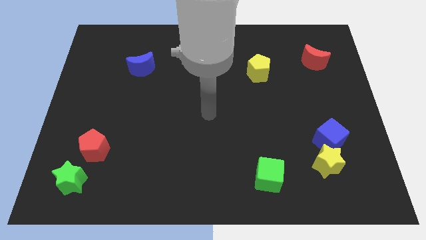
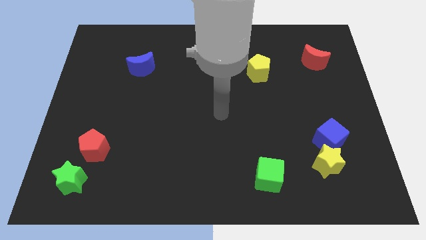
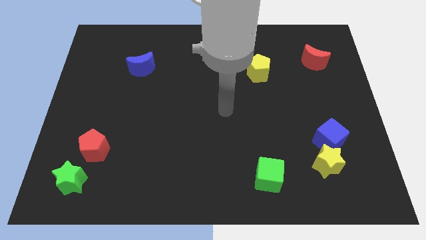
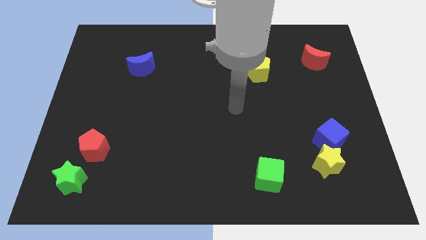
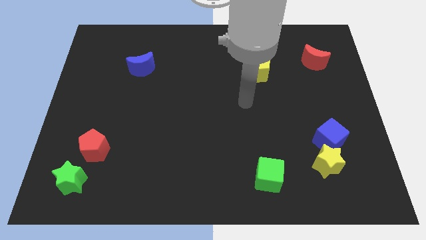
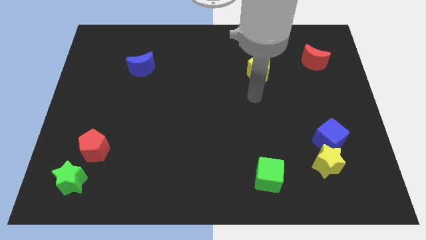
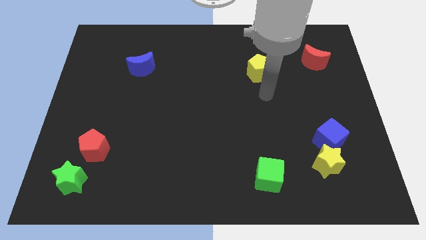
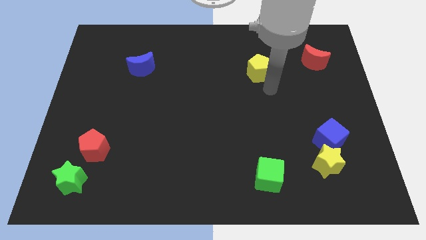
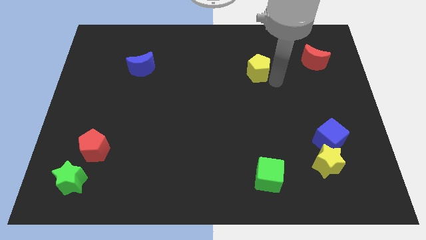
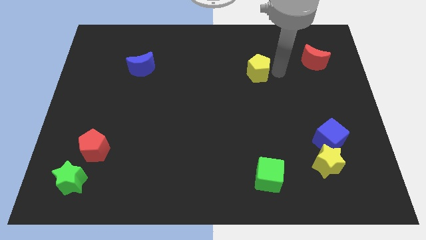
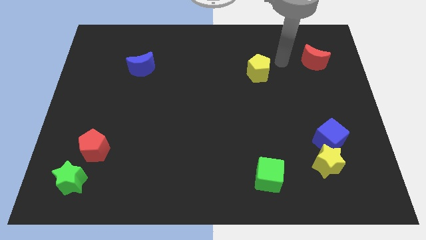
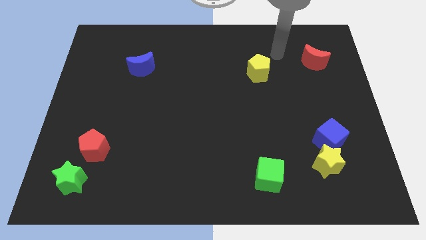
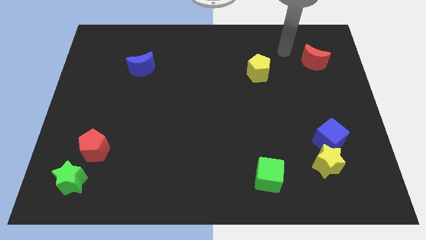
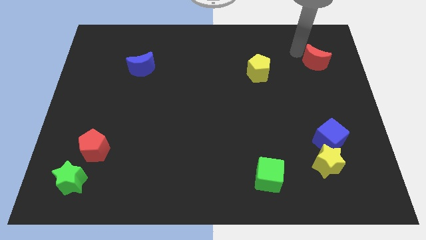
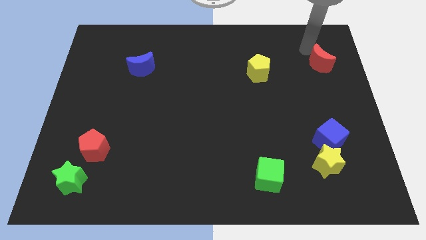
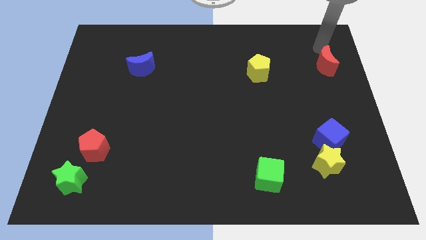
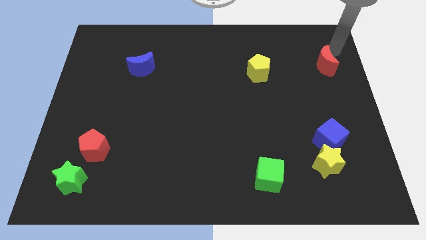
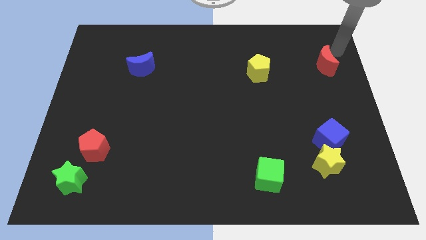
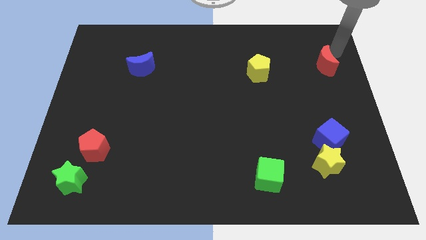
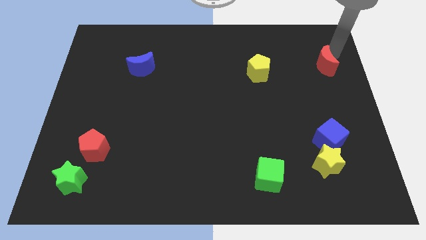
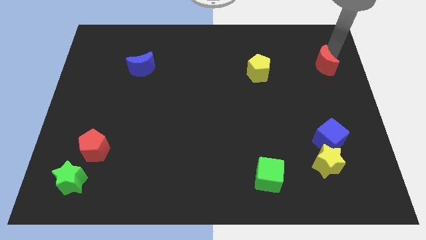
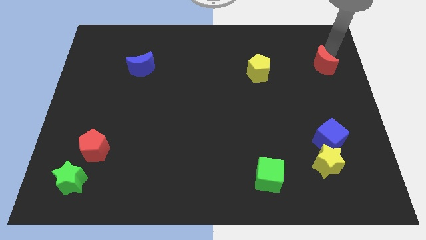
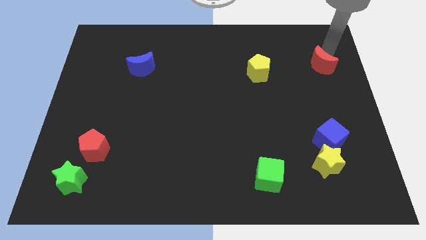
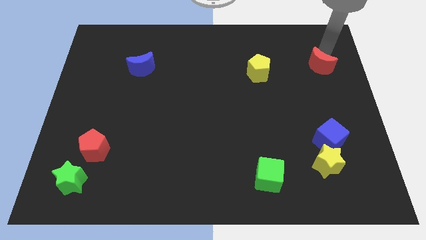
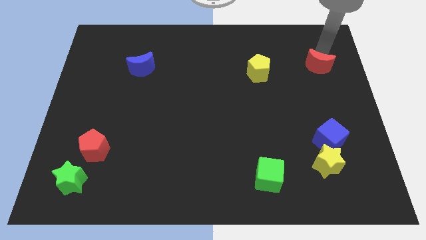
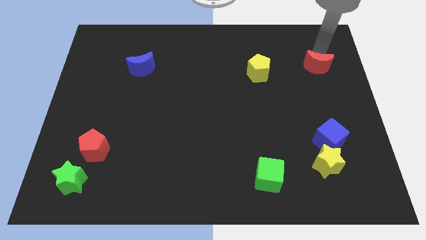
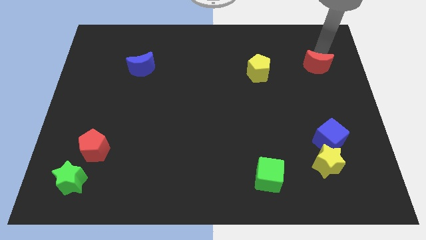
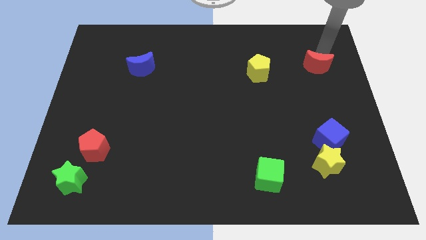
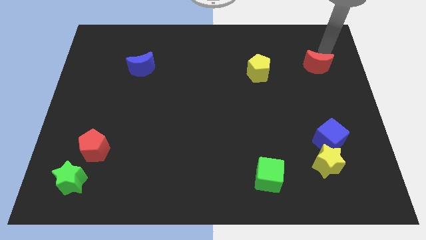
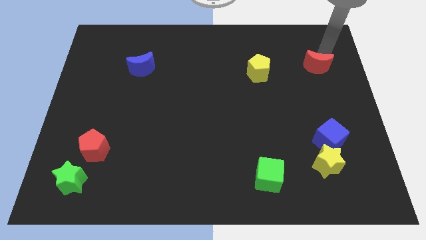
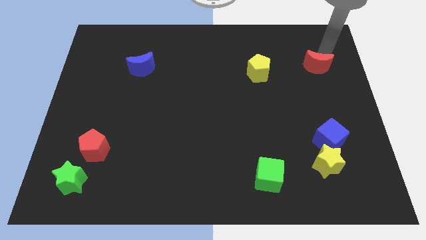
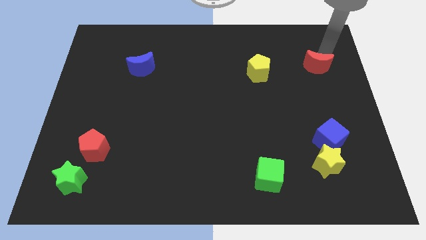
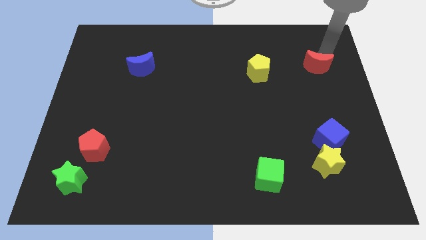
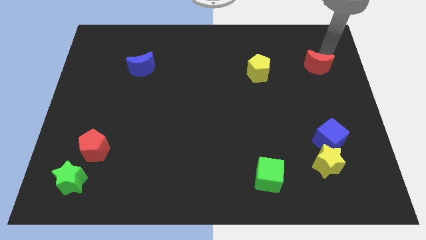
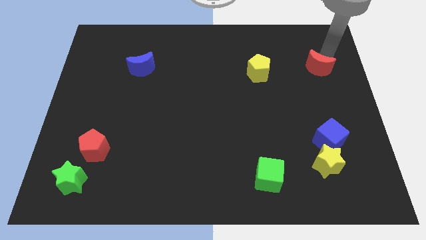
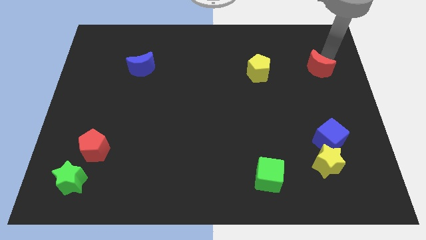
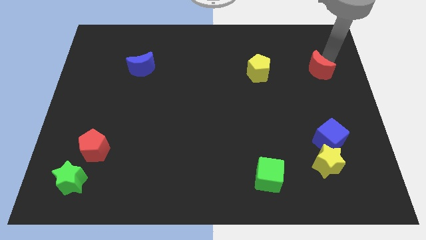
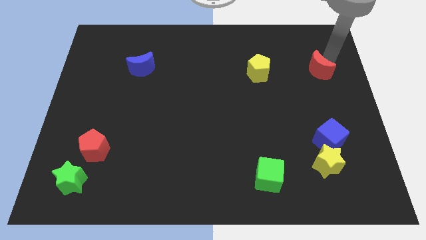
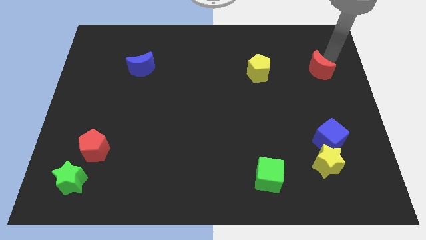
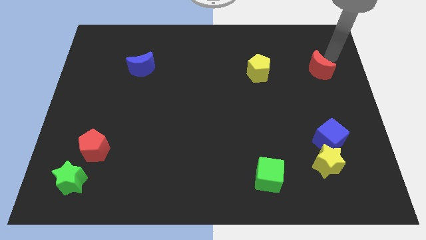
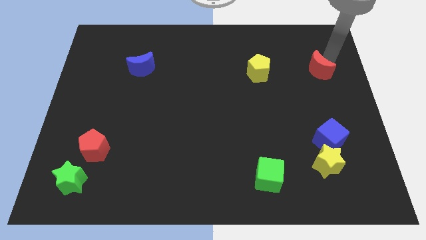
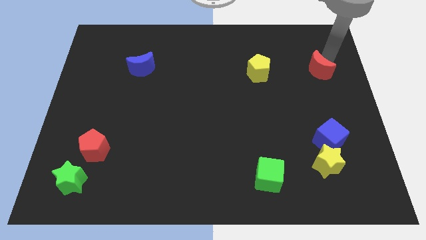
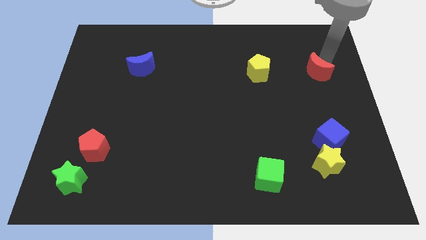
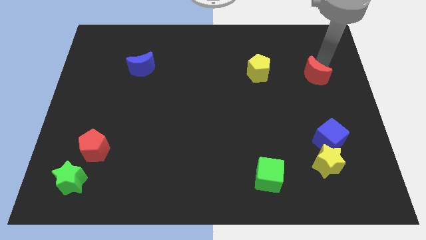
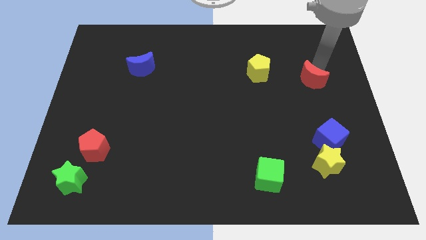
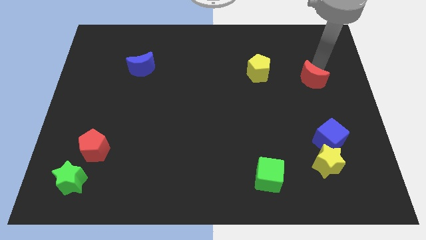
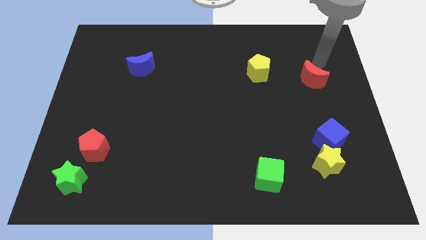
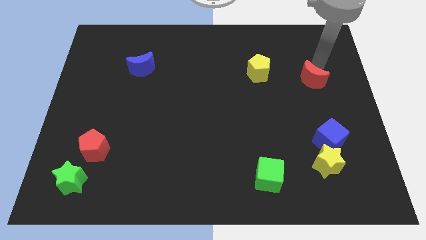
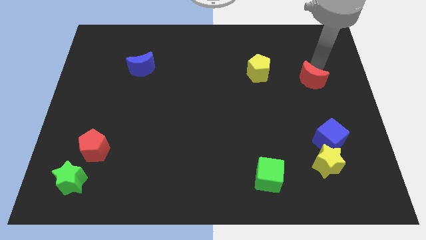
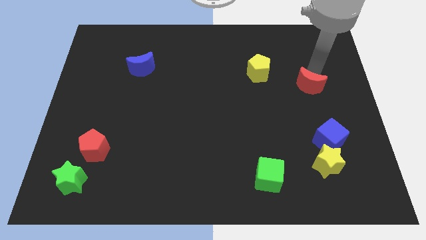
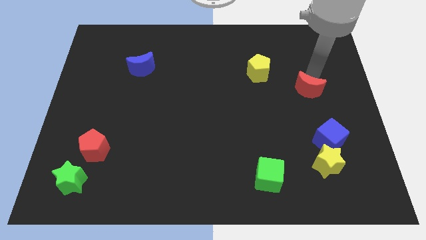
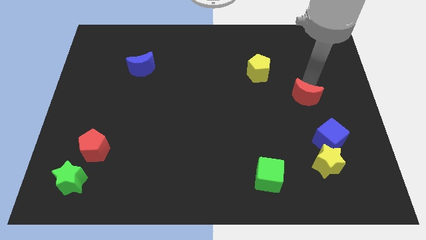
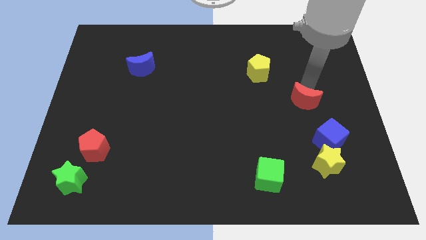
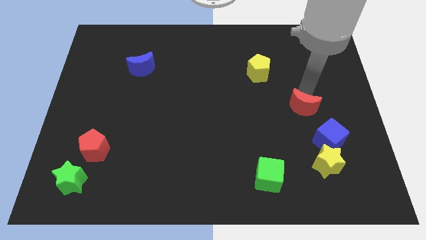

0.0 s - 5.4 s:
push the red moon to the top left side of the blue cube

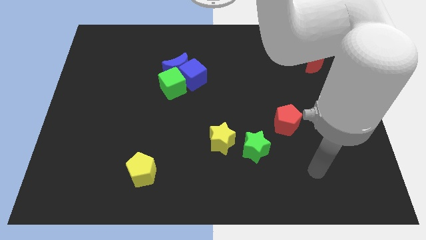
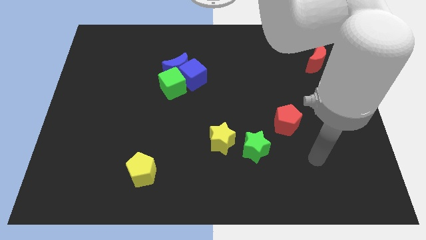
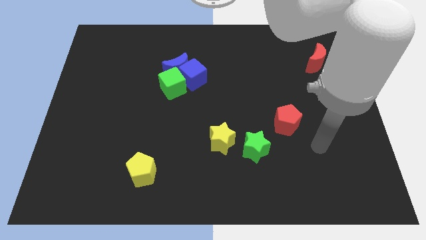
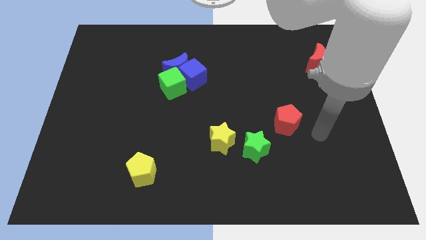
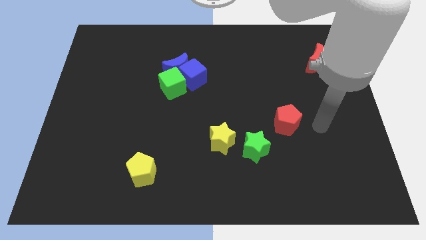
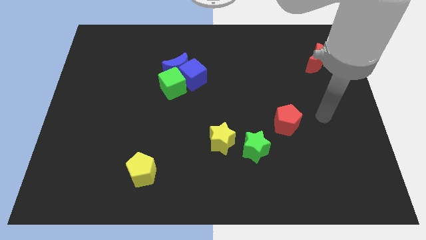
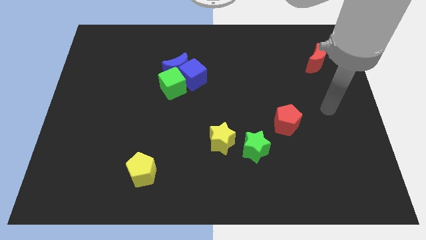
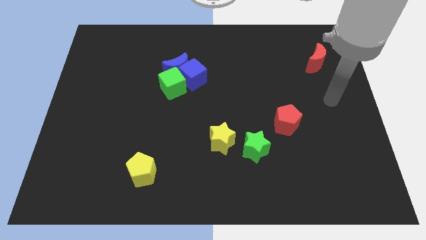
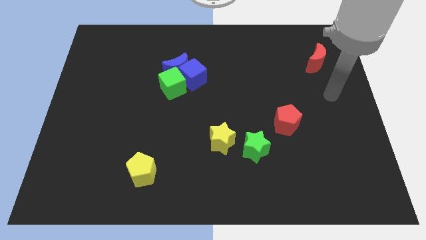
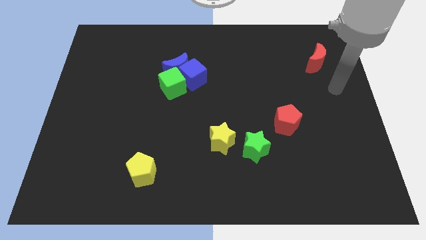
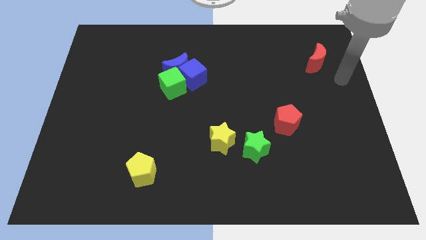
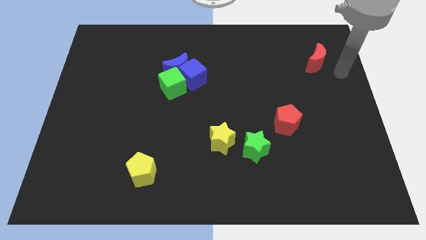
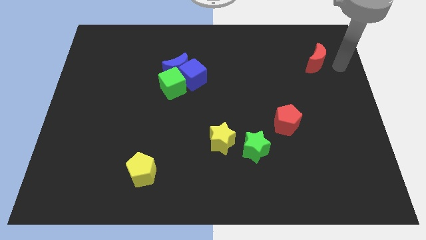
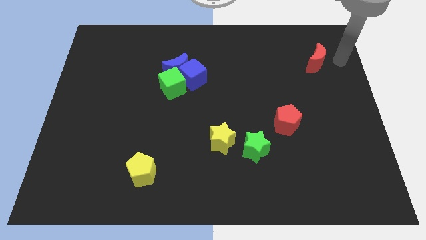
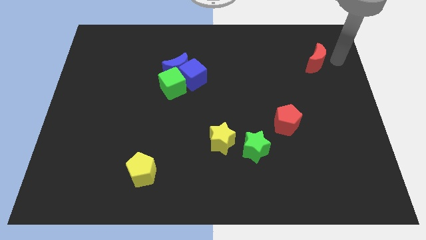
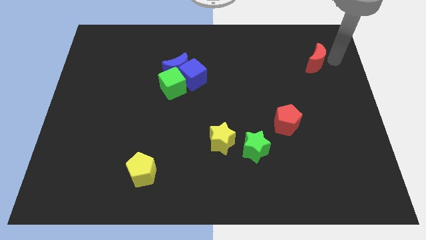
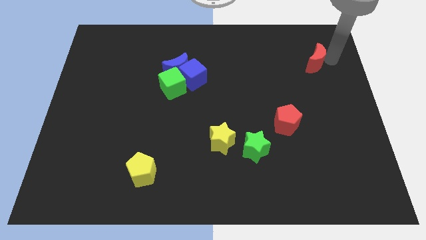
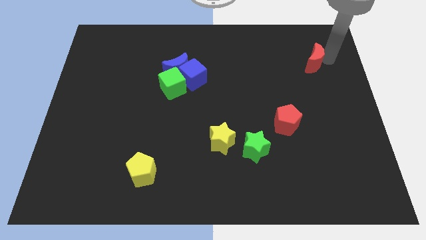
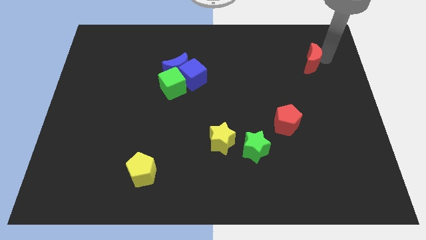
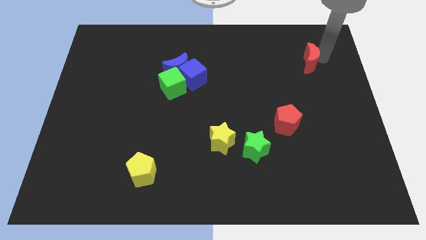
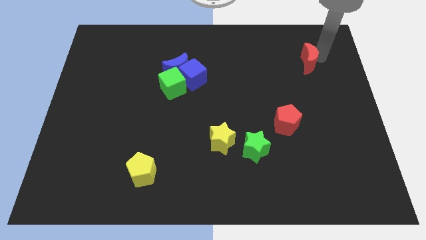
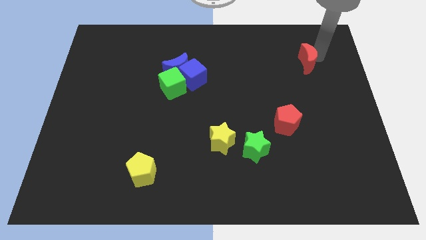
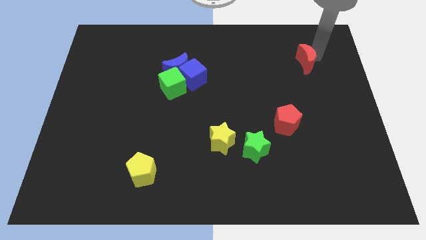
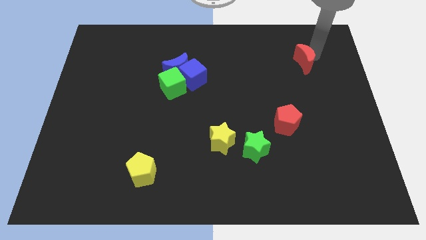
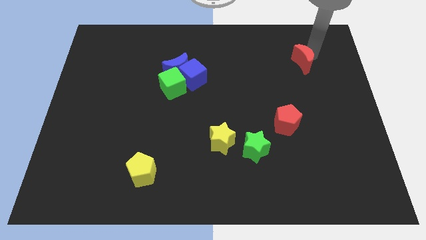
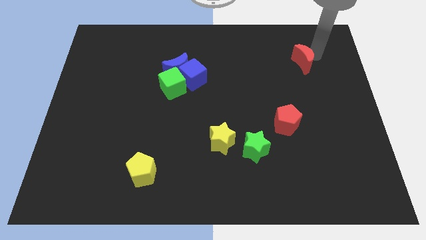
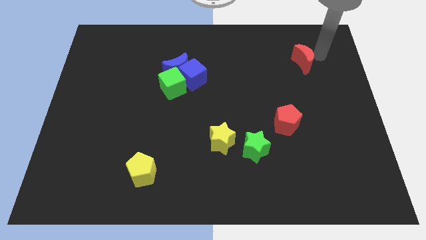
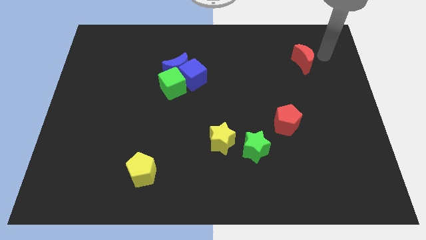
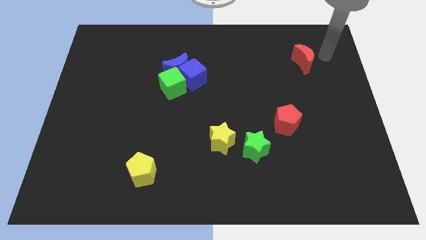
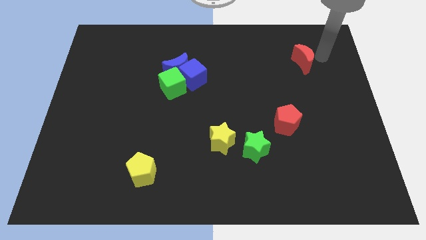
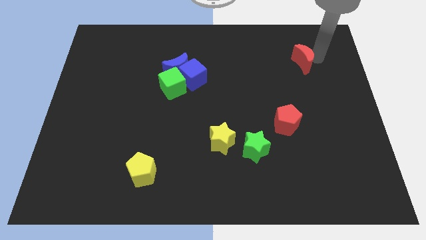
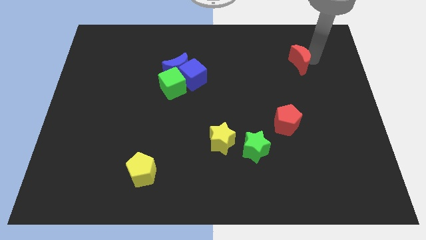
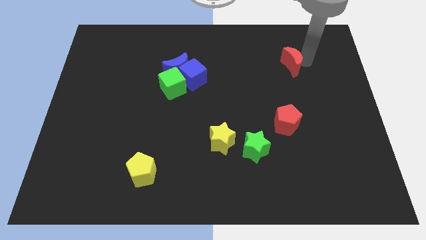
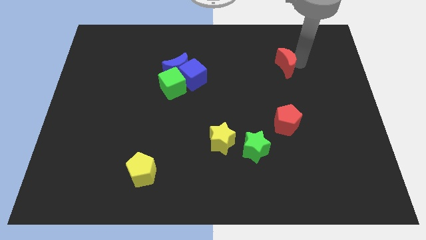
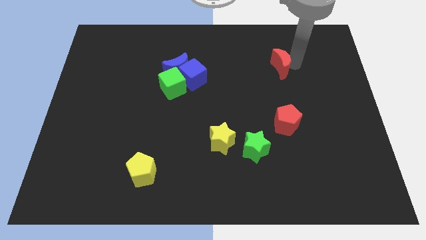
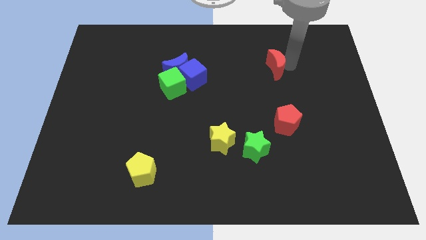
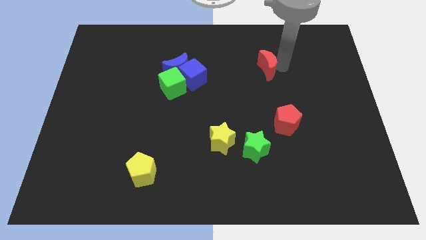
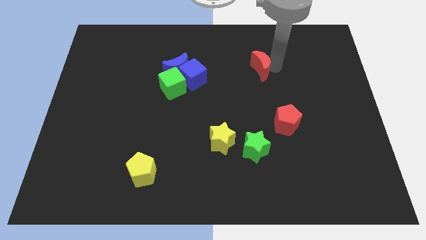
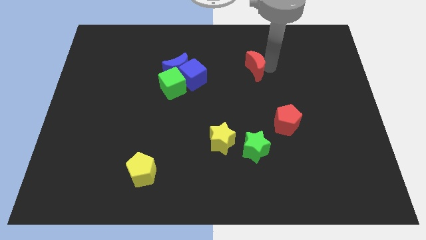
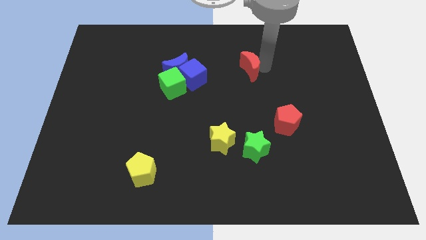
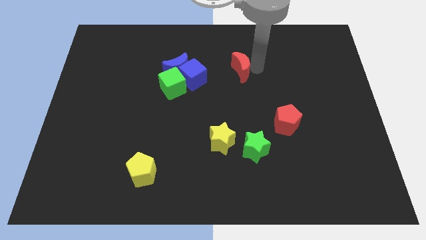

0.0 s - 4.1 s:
move the red moon to the right of the blue moon
